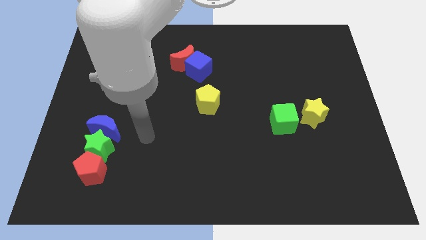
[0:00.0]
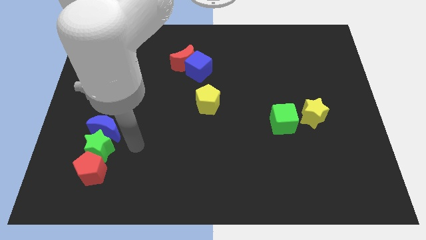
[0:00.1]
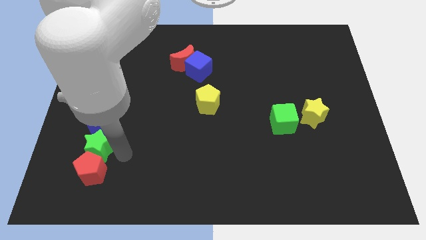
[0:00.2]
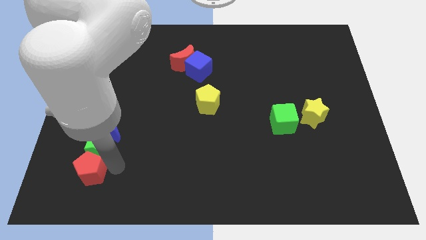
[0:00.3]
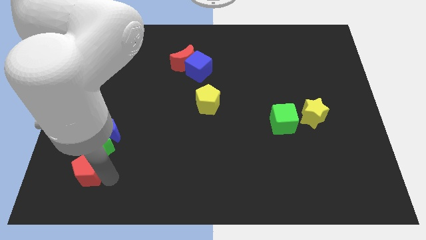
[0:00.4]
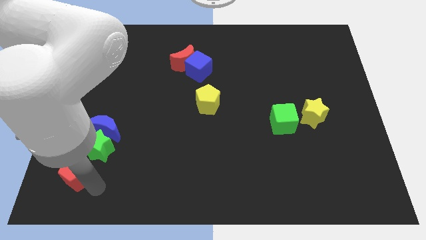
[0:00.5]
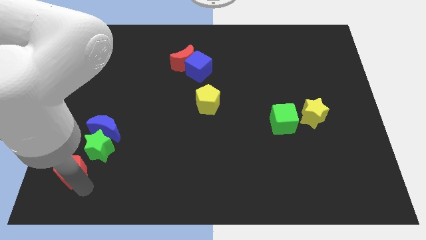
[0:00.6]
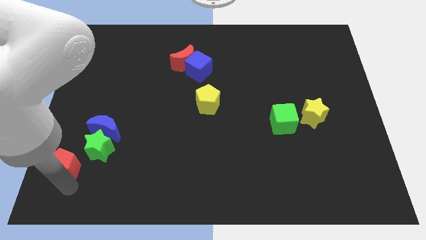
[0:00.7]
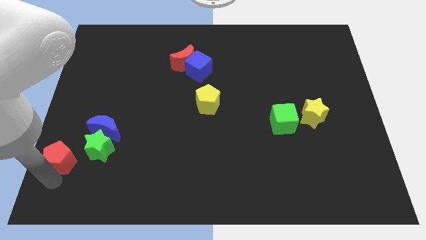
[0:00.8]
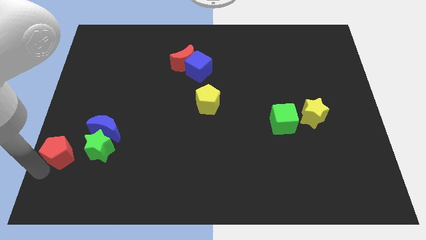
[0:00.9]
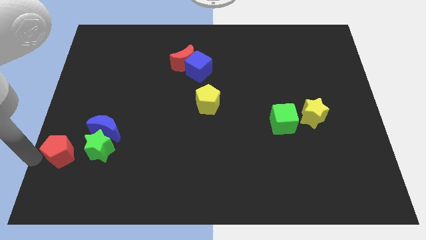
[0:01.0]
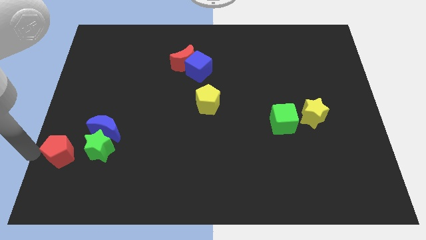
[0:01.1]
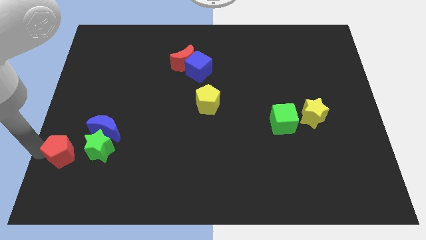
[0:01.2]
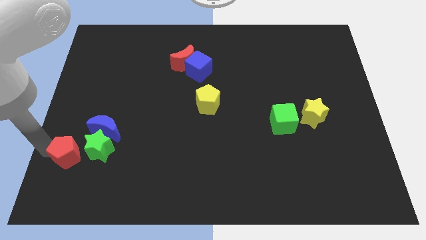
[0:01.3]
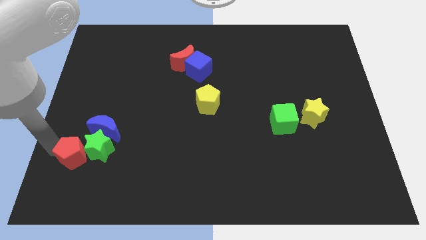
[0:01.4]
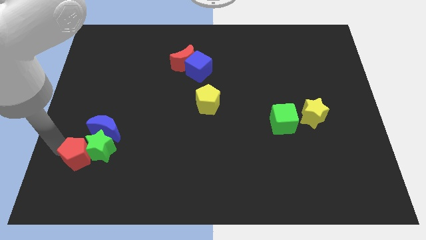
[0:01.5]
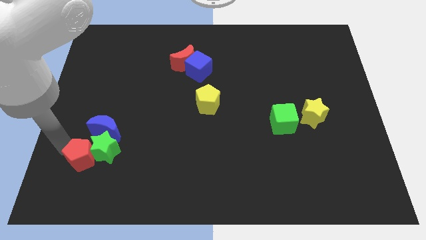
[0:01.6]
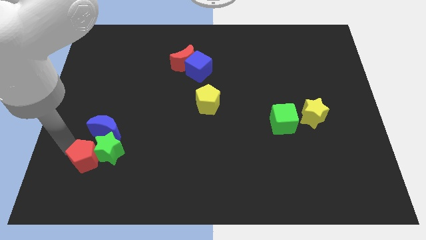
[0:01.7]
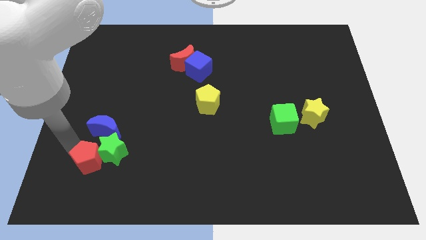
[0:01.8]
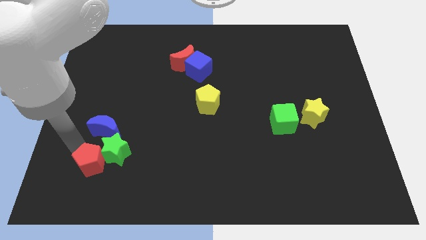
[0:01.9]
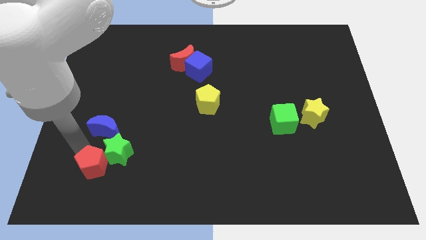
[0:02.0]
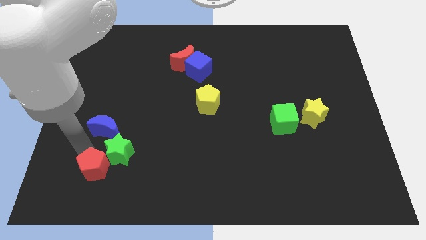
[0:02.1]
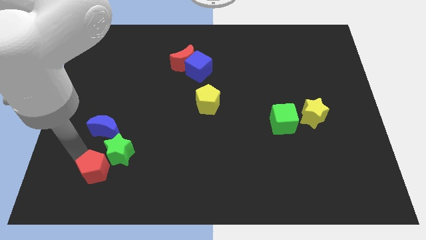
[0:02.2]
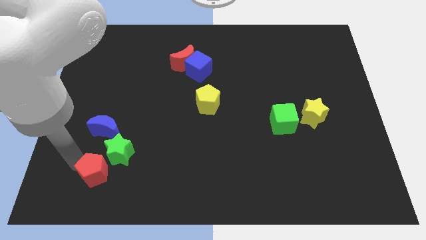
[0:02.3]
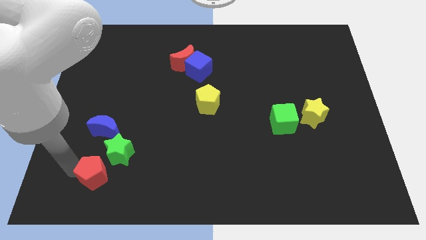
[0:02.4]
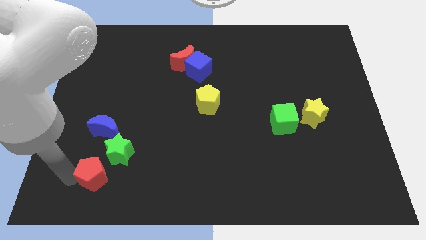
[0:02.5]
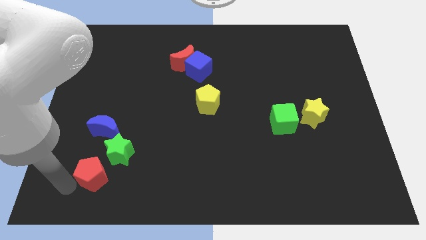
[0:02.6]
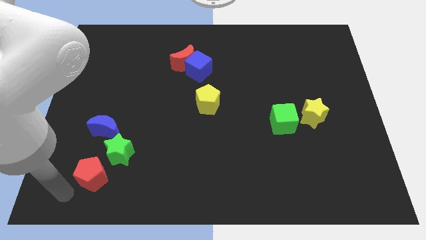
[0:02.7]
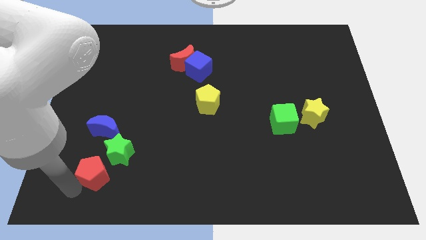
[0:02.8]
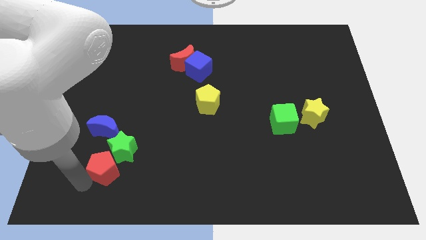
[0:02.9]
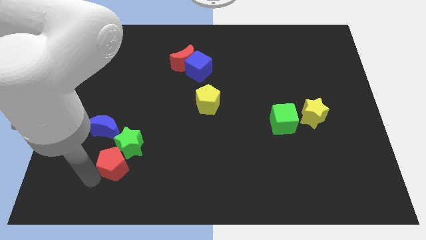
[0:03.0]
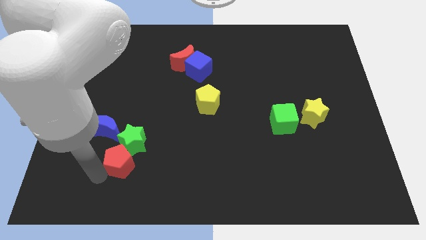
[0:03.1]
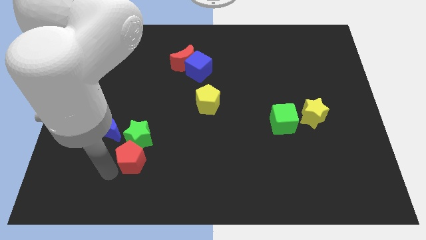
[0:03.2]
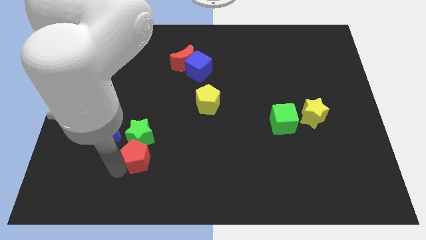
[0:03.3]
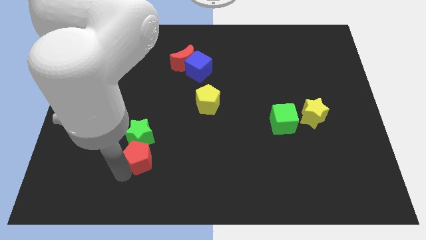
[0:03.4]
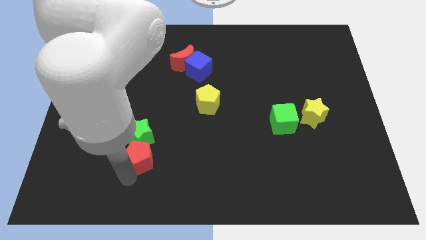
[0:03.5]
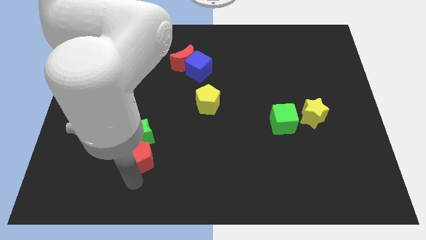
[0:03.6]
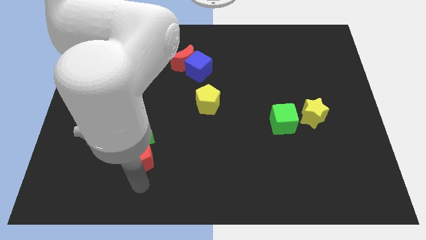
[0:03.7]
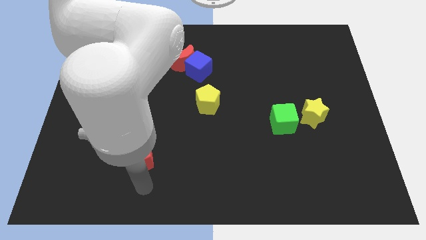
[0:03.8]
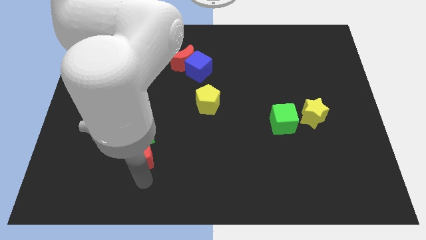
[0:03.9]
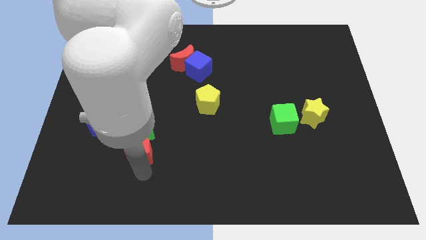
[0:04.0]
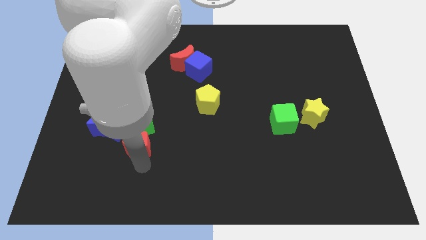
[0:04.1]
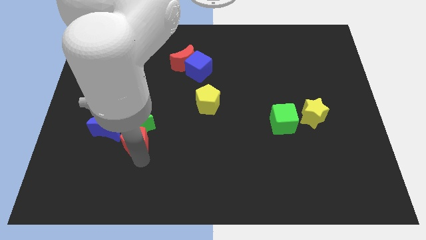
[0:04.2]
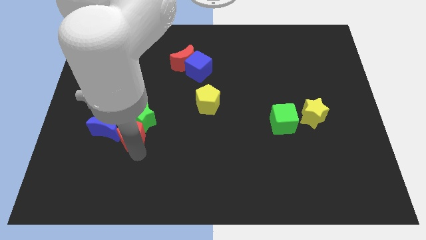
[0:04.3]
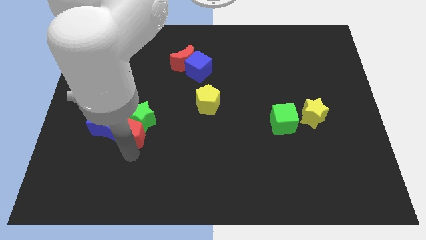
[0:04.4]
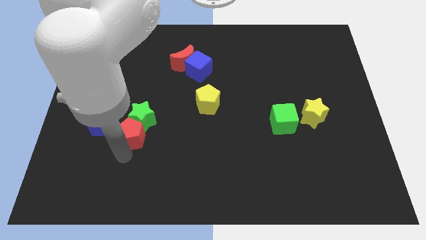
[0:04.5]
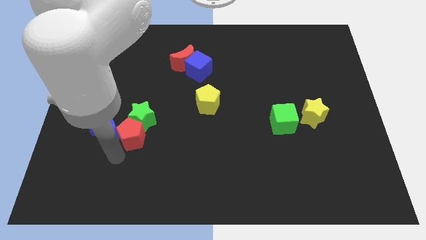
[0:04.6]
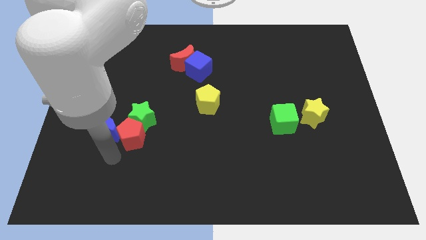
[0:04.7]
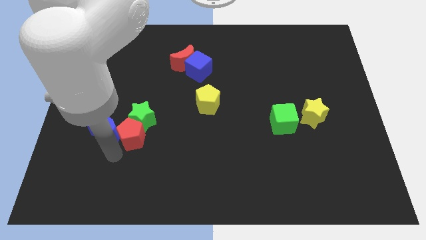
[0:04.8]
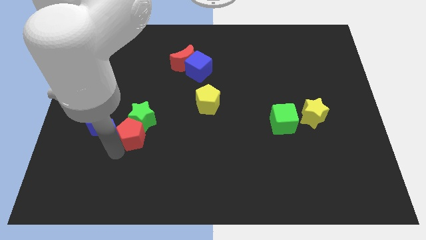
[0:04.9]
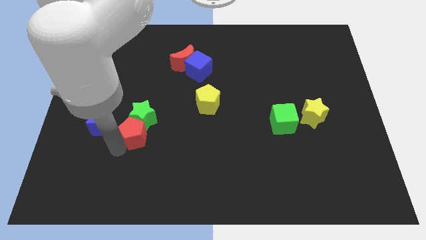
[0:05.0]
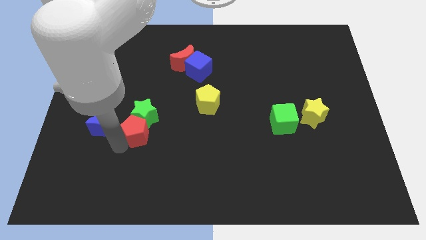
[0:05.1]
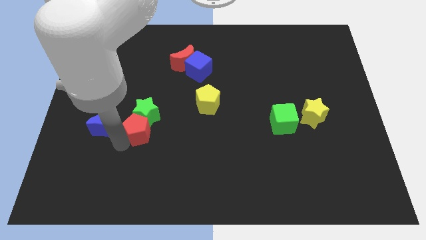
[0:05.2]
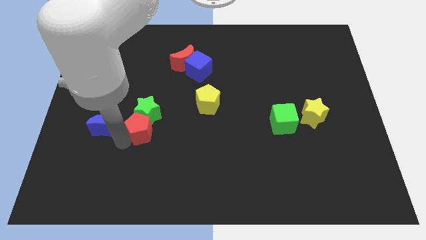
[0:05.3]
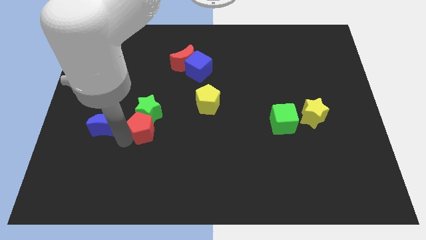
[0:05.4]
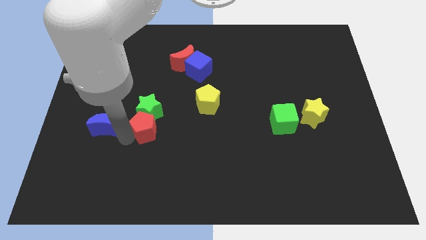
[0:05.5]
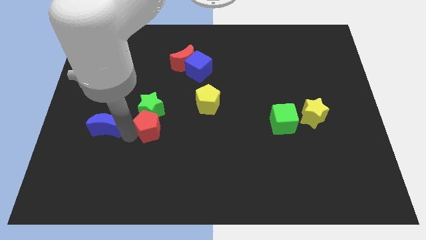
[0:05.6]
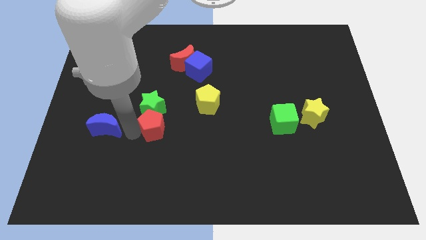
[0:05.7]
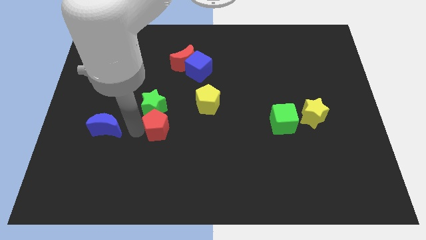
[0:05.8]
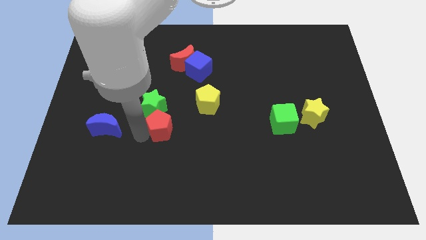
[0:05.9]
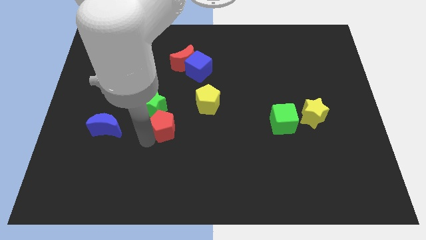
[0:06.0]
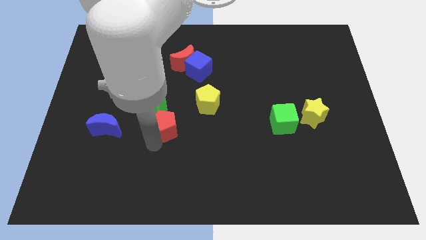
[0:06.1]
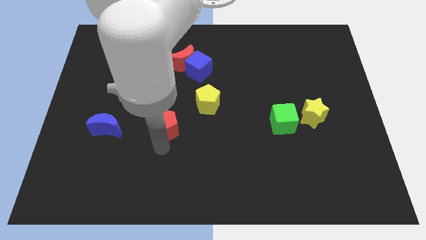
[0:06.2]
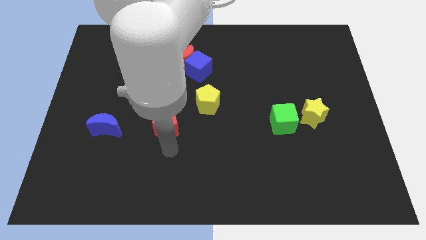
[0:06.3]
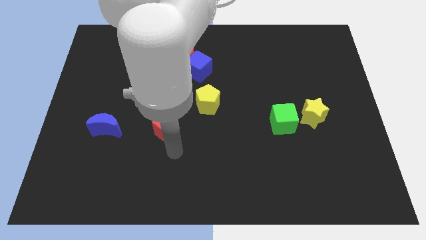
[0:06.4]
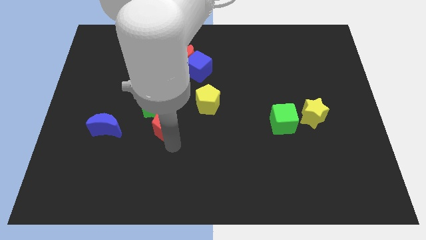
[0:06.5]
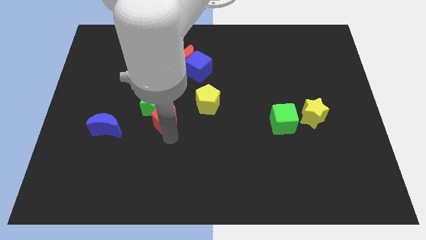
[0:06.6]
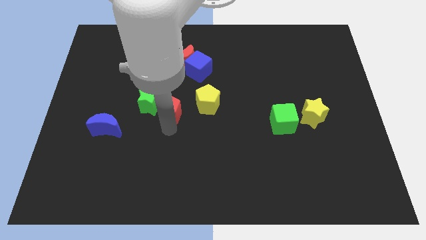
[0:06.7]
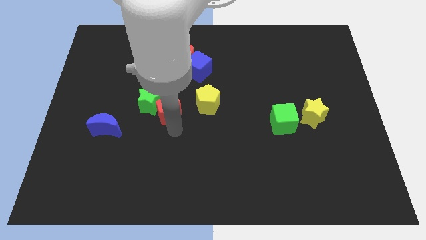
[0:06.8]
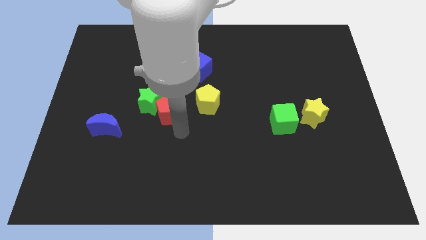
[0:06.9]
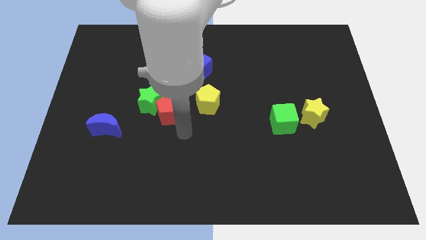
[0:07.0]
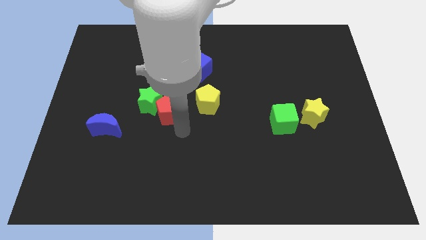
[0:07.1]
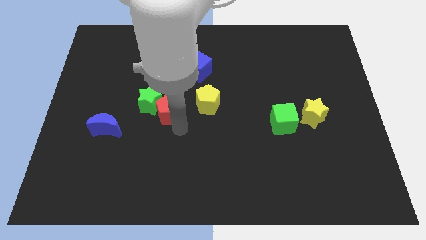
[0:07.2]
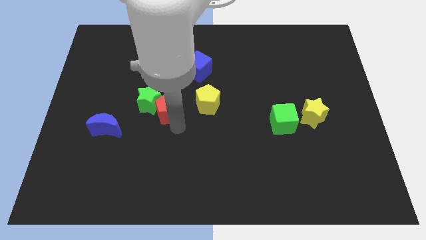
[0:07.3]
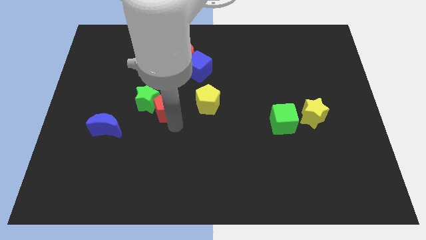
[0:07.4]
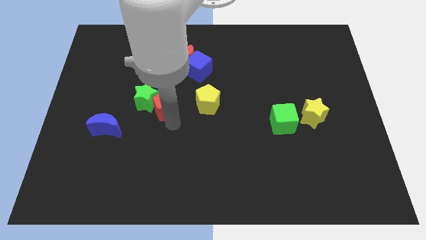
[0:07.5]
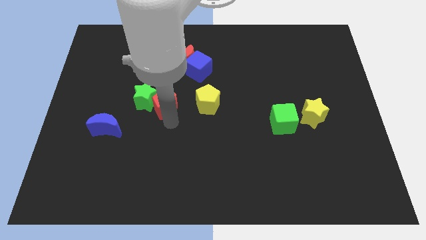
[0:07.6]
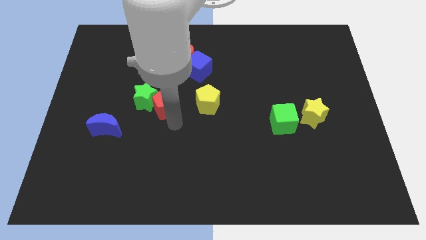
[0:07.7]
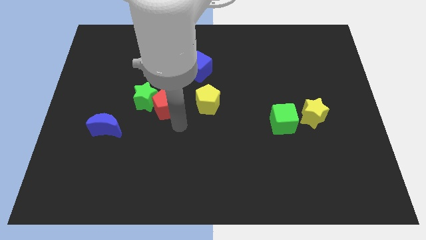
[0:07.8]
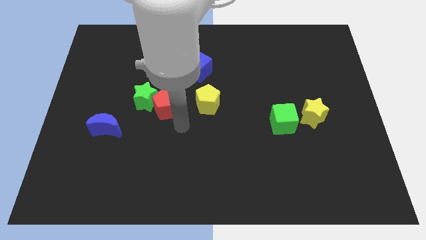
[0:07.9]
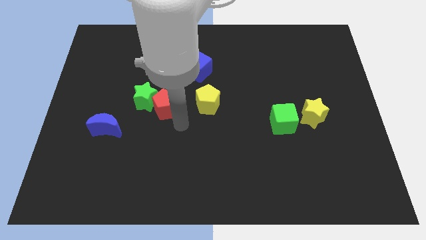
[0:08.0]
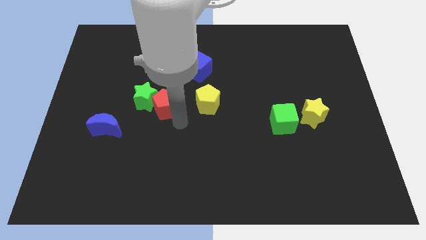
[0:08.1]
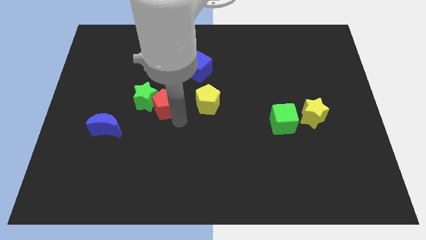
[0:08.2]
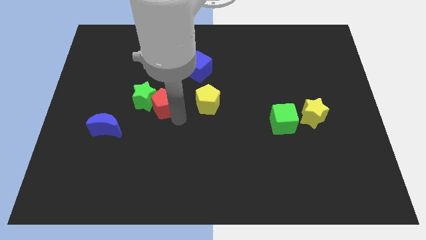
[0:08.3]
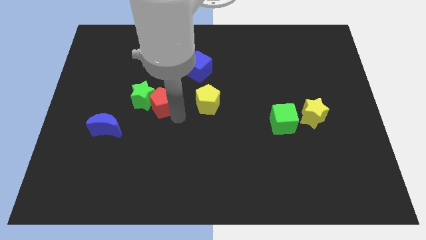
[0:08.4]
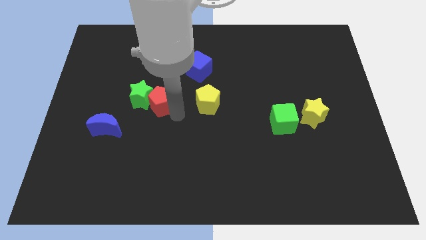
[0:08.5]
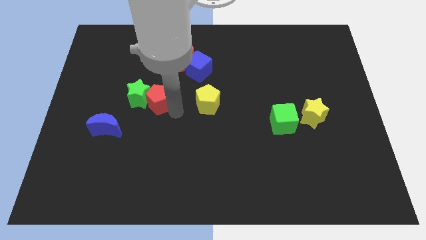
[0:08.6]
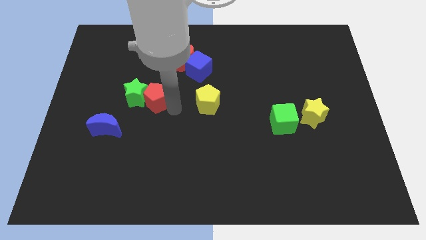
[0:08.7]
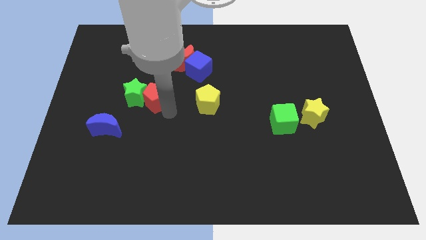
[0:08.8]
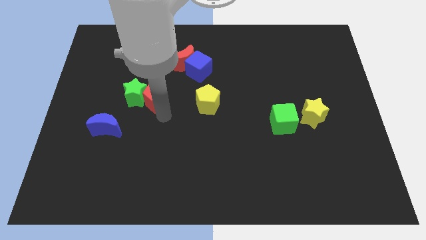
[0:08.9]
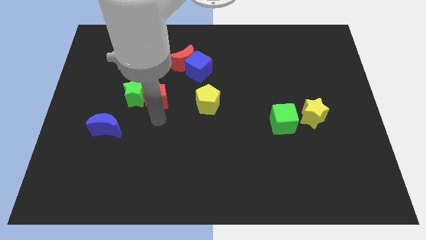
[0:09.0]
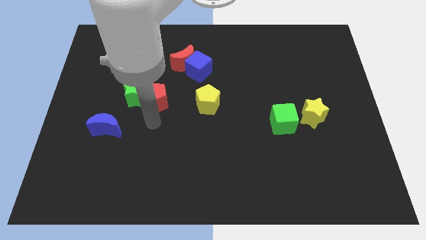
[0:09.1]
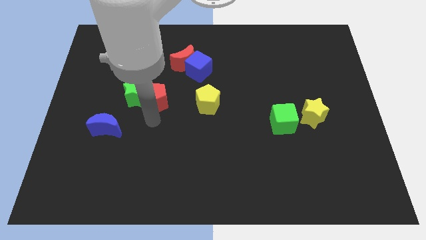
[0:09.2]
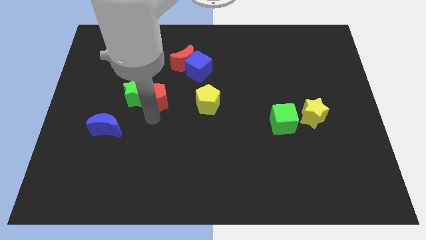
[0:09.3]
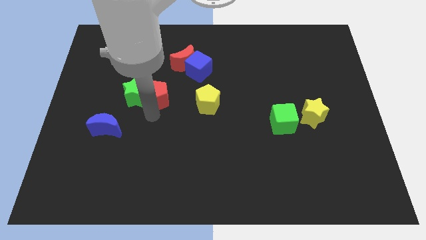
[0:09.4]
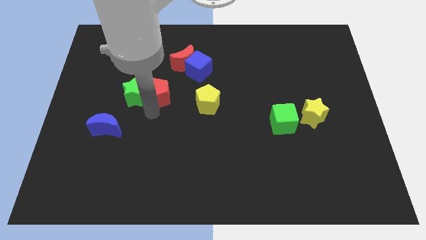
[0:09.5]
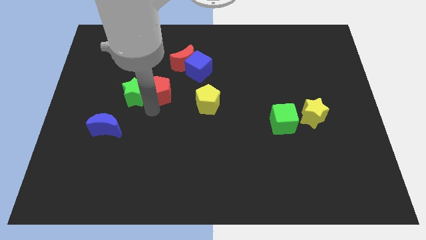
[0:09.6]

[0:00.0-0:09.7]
move the red pentagon diagonally down and to the left of the red moon
